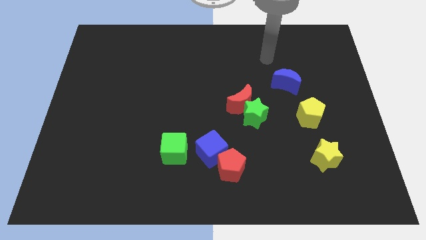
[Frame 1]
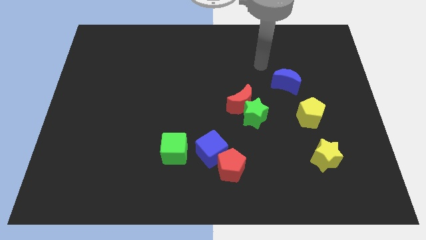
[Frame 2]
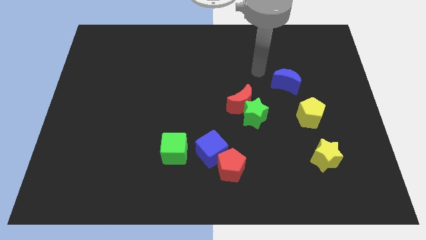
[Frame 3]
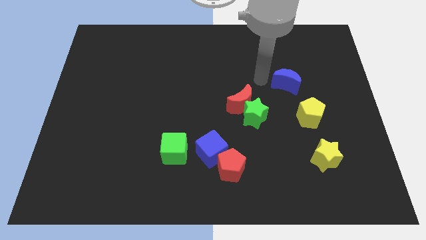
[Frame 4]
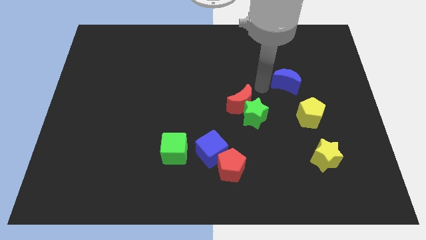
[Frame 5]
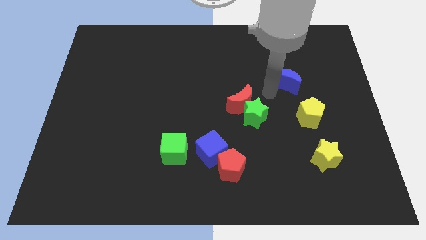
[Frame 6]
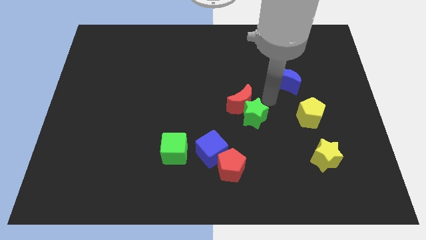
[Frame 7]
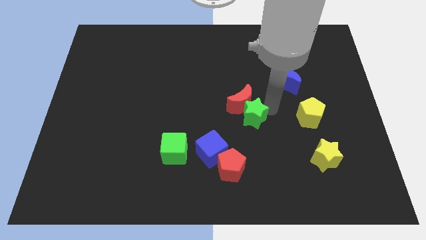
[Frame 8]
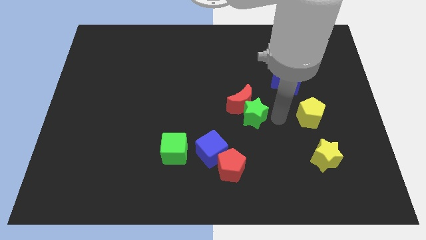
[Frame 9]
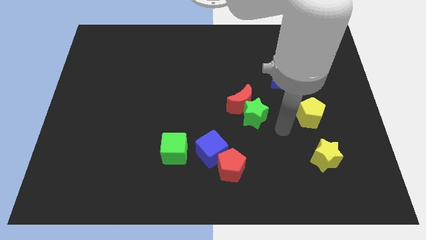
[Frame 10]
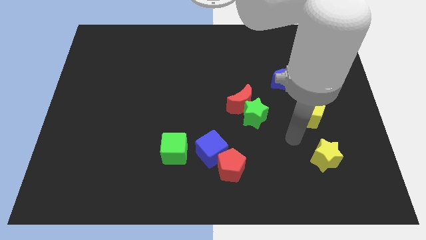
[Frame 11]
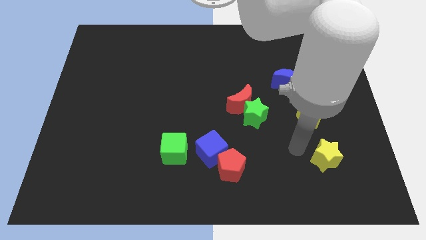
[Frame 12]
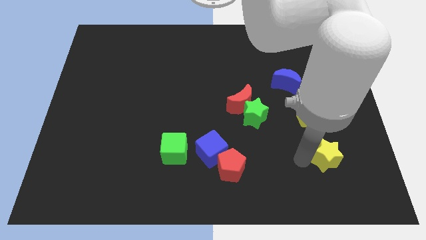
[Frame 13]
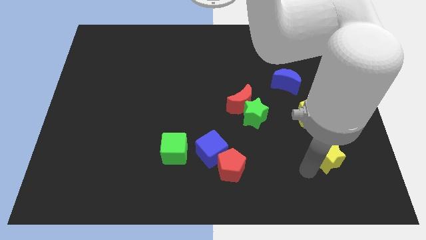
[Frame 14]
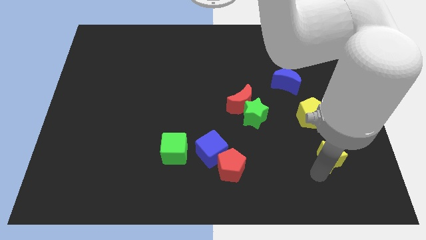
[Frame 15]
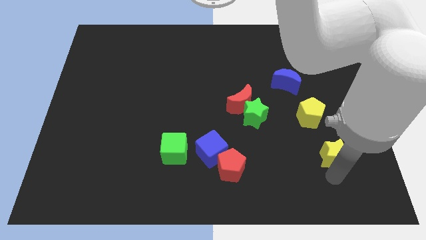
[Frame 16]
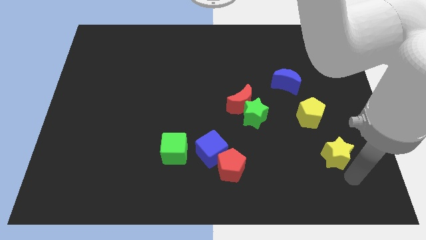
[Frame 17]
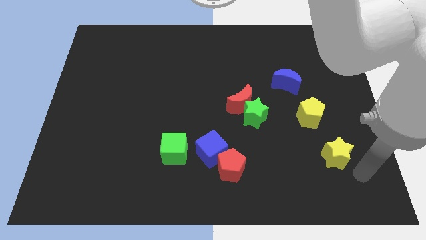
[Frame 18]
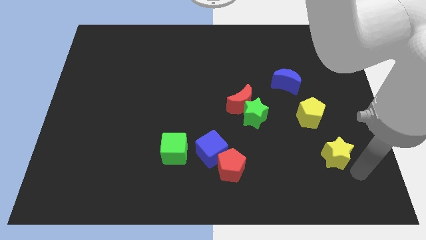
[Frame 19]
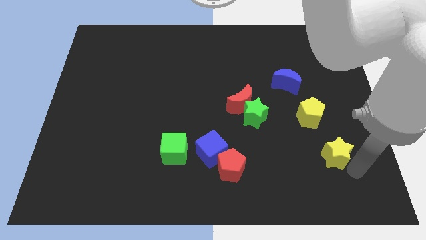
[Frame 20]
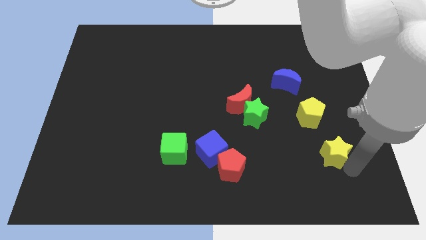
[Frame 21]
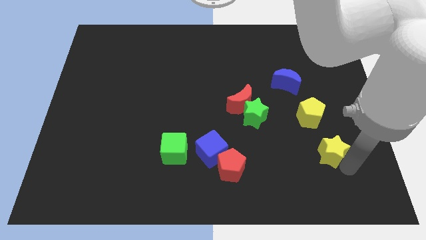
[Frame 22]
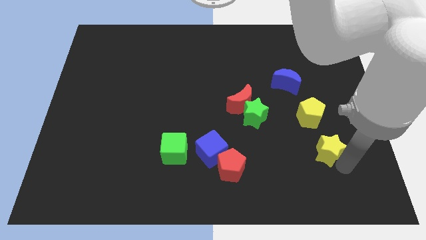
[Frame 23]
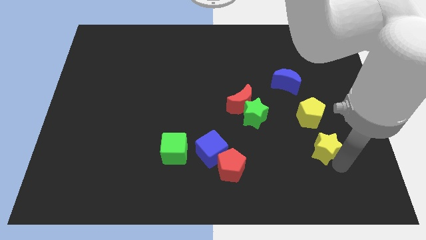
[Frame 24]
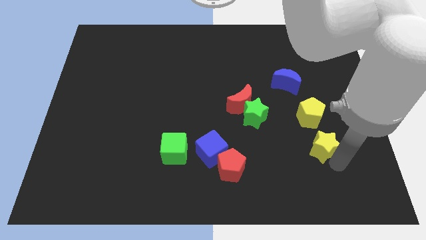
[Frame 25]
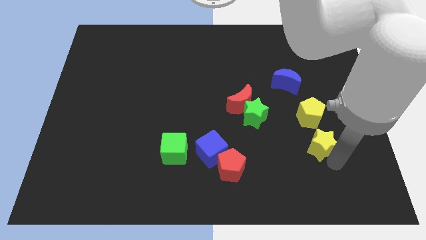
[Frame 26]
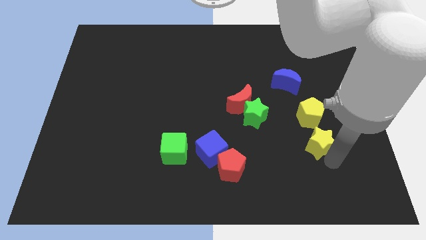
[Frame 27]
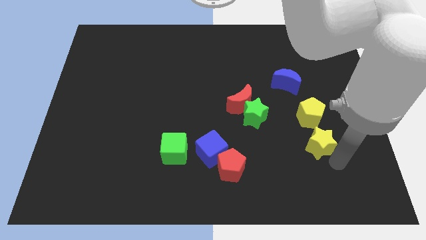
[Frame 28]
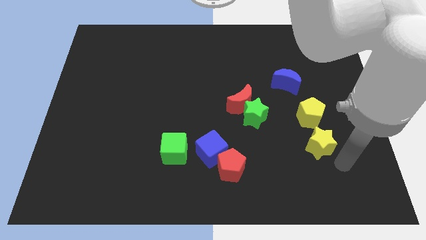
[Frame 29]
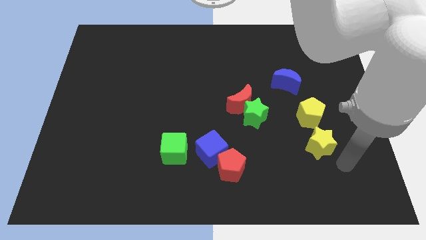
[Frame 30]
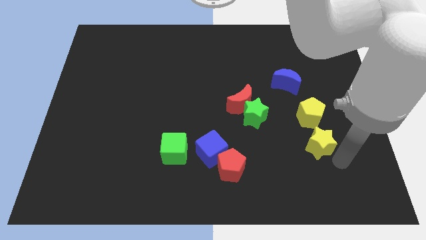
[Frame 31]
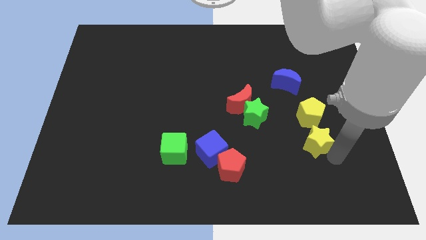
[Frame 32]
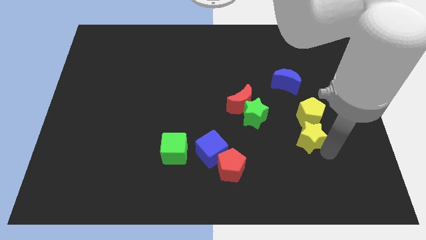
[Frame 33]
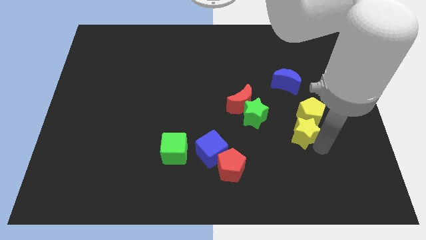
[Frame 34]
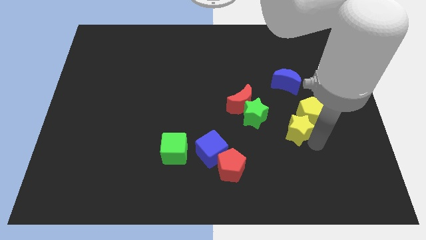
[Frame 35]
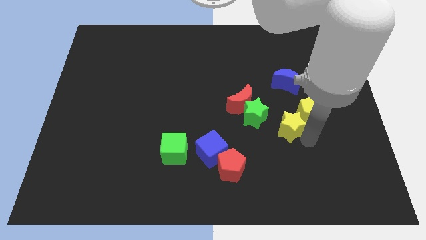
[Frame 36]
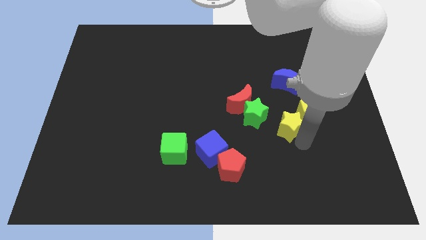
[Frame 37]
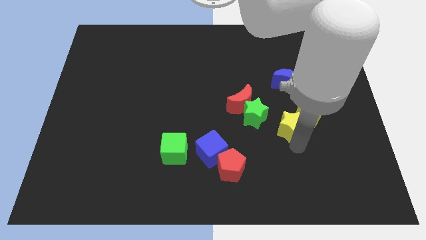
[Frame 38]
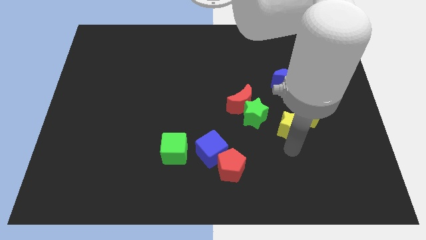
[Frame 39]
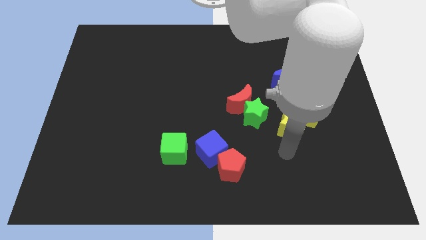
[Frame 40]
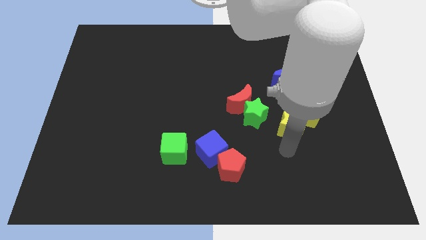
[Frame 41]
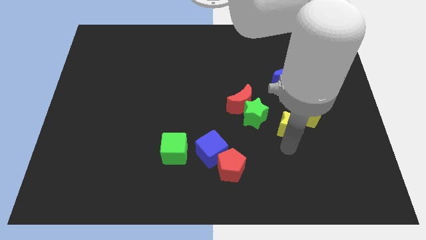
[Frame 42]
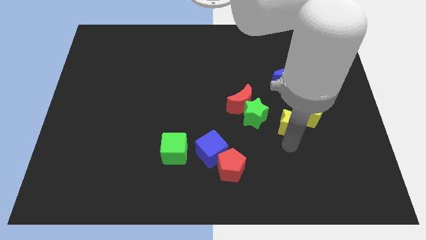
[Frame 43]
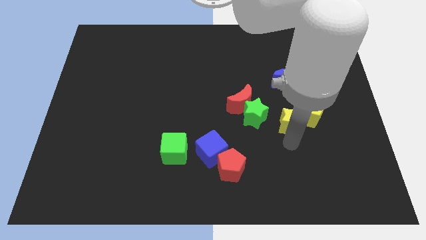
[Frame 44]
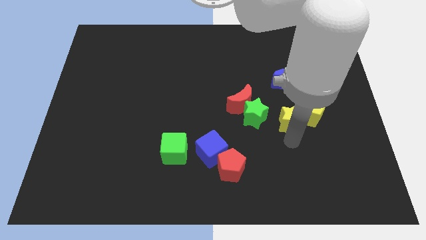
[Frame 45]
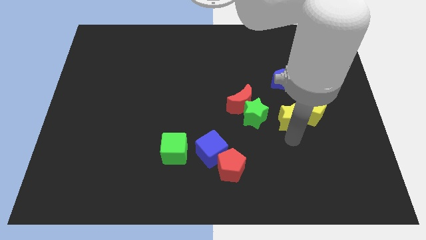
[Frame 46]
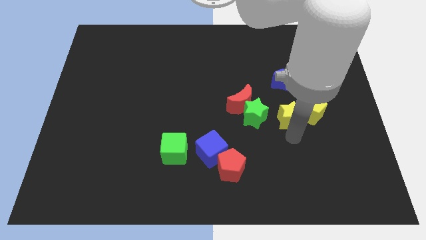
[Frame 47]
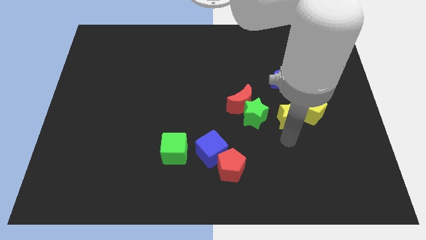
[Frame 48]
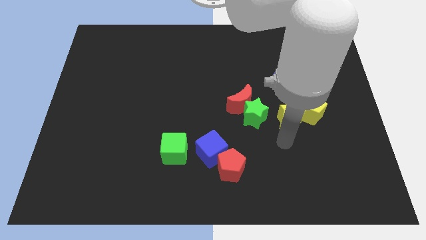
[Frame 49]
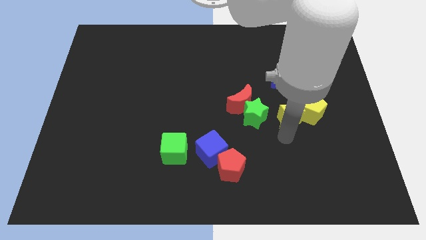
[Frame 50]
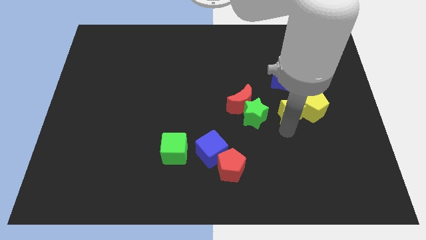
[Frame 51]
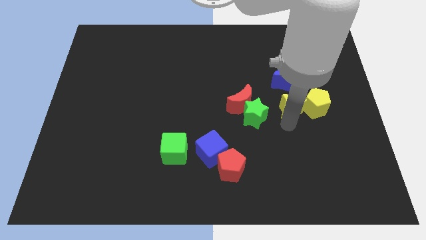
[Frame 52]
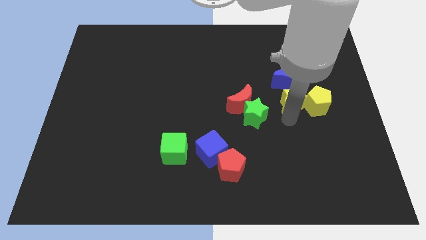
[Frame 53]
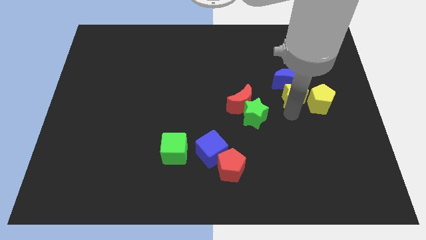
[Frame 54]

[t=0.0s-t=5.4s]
push the yellow star towards the blue moon

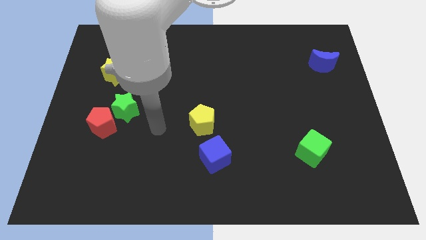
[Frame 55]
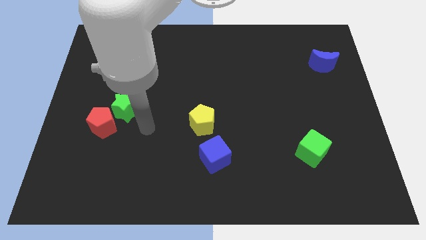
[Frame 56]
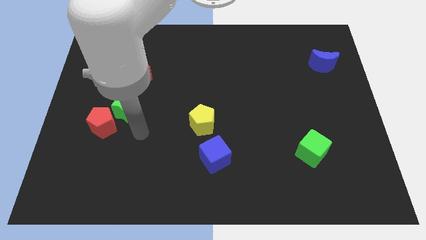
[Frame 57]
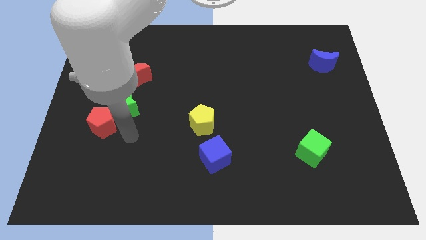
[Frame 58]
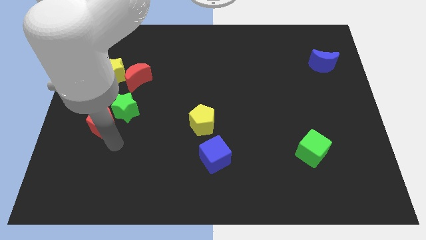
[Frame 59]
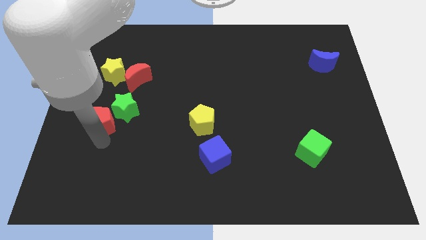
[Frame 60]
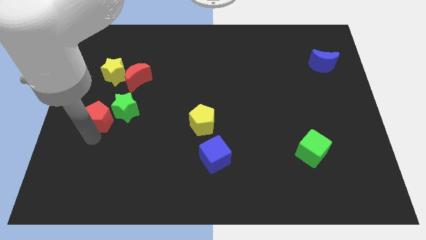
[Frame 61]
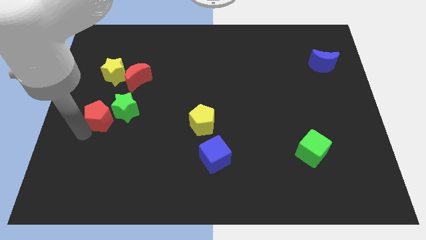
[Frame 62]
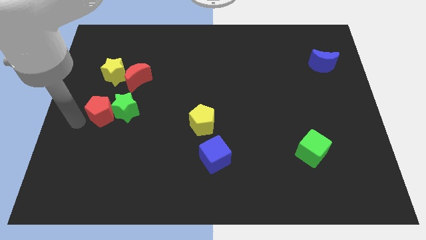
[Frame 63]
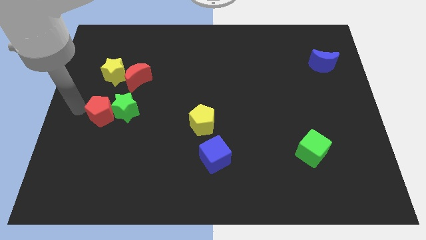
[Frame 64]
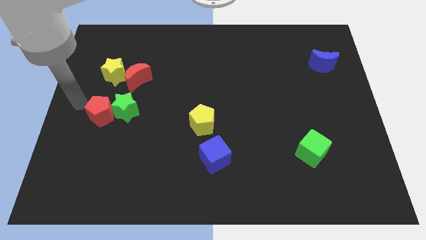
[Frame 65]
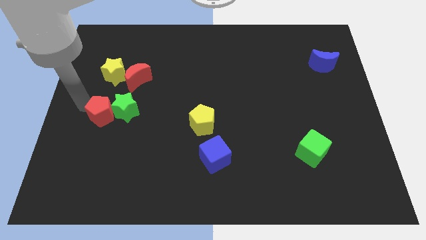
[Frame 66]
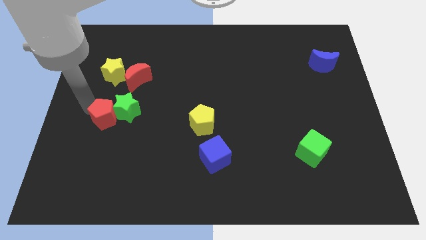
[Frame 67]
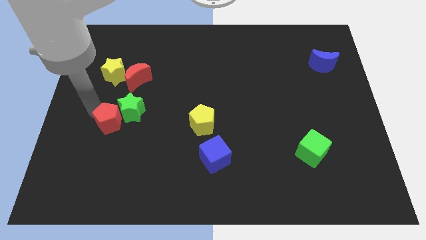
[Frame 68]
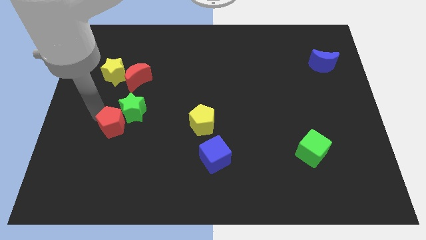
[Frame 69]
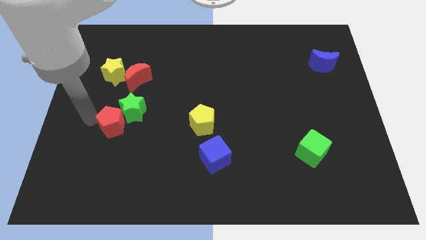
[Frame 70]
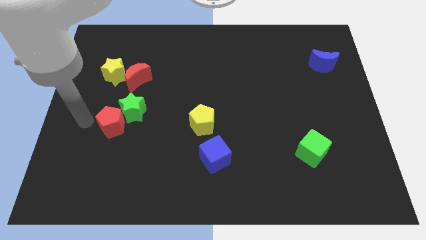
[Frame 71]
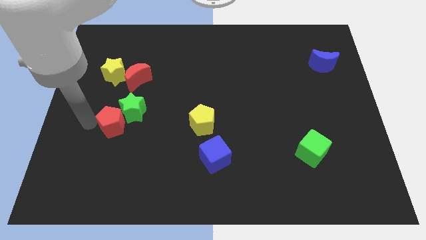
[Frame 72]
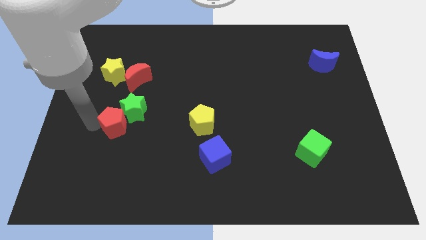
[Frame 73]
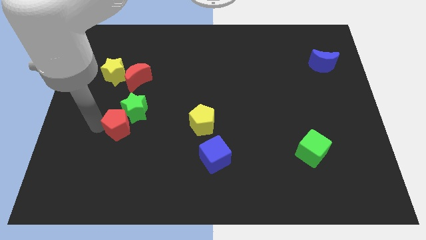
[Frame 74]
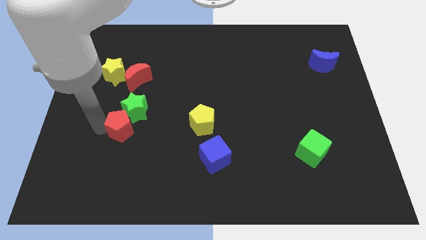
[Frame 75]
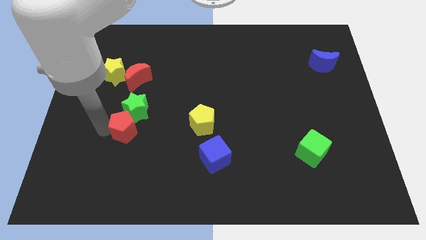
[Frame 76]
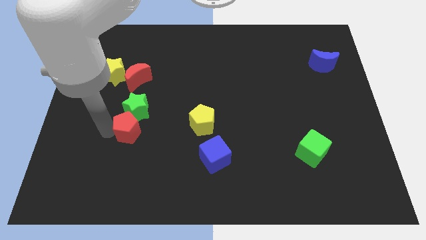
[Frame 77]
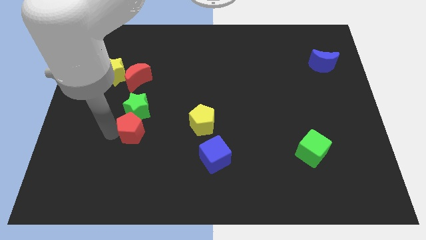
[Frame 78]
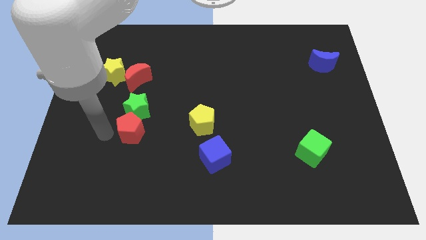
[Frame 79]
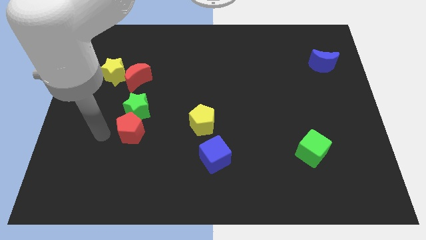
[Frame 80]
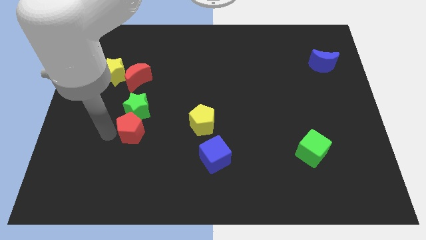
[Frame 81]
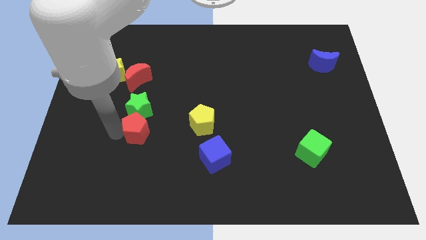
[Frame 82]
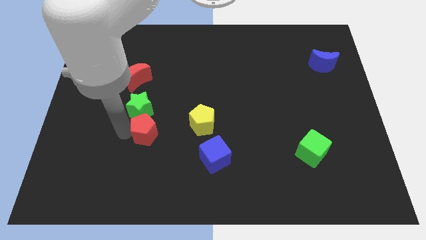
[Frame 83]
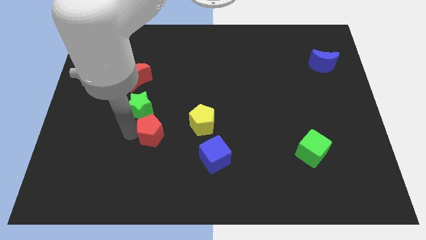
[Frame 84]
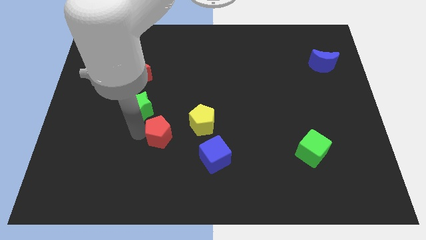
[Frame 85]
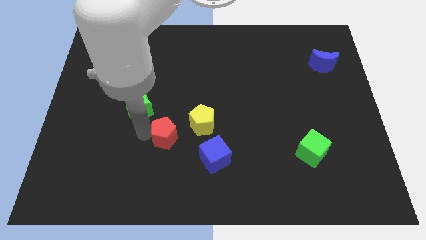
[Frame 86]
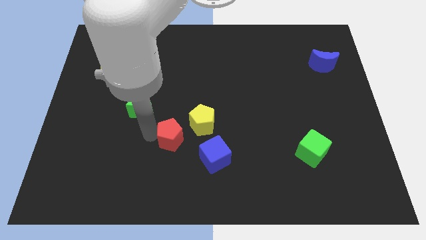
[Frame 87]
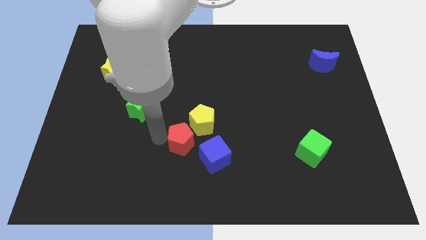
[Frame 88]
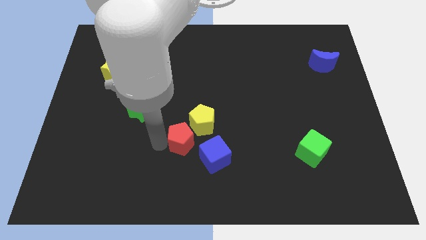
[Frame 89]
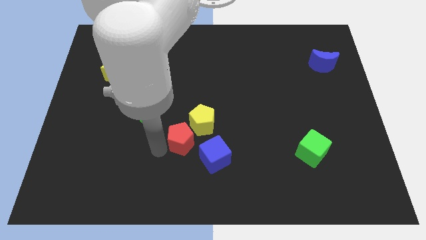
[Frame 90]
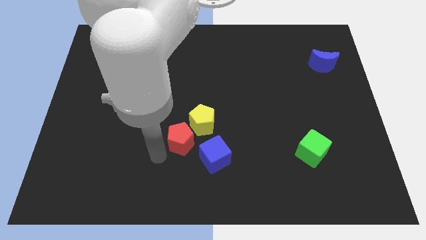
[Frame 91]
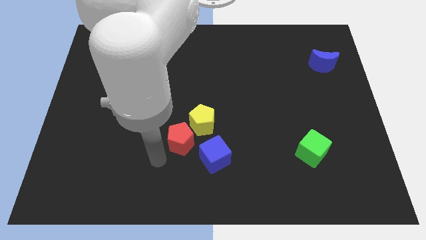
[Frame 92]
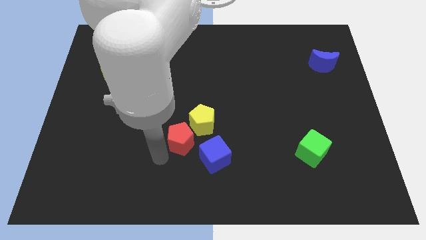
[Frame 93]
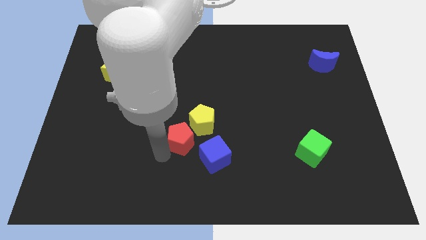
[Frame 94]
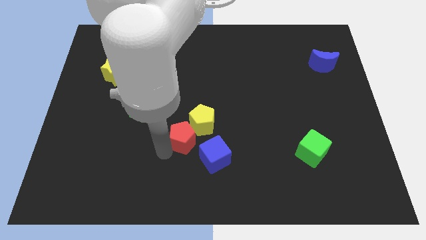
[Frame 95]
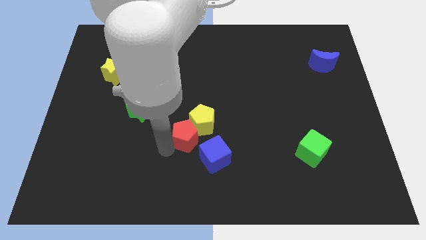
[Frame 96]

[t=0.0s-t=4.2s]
slide the red pentagon next to the yellow pentagon
